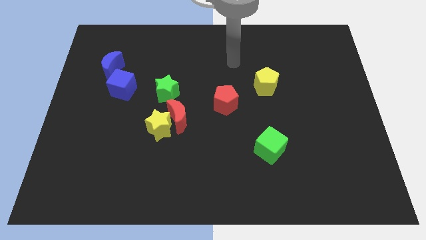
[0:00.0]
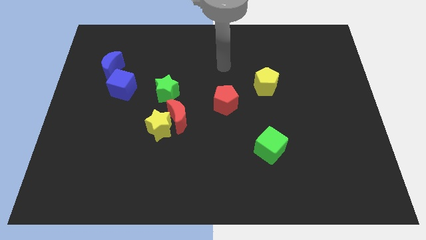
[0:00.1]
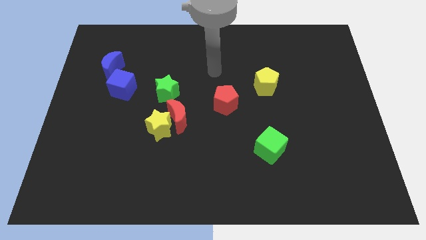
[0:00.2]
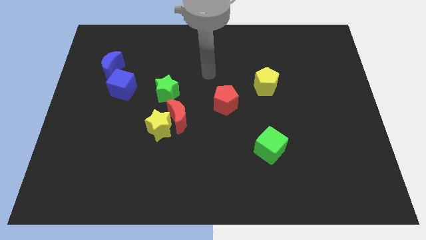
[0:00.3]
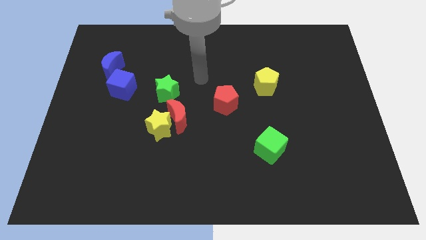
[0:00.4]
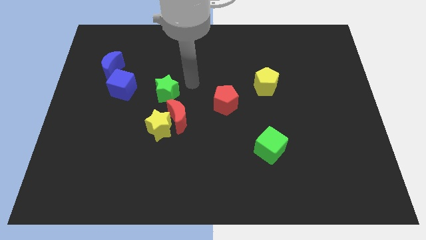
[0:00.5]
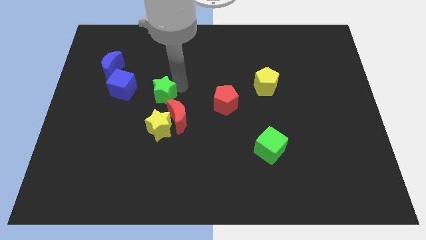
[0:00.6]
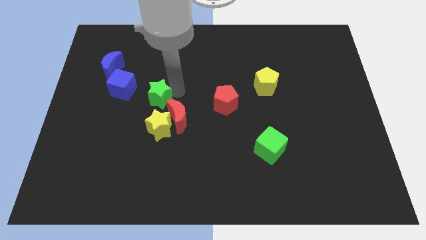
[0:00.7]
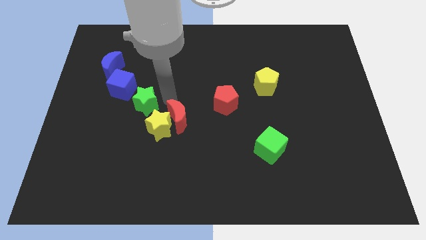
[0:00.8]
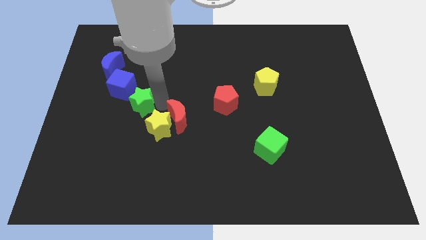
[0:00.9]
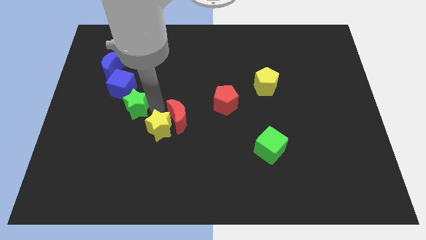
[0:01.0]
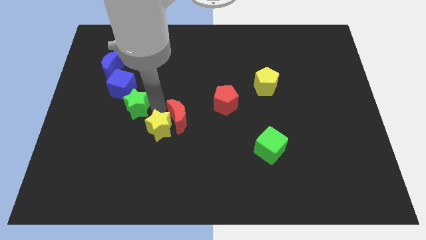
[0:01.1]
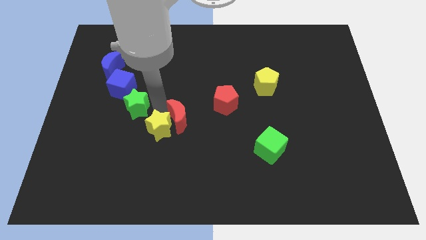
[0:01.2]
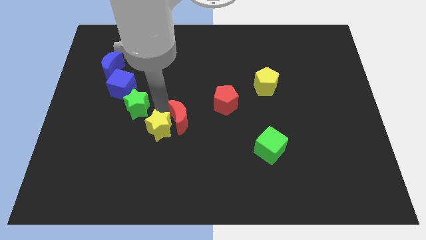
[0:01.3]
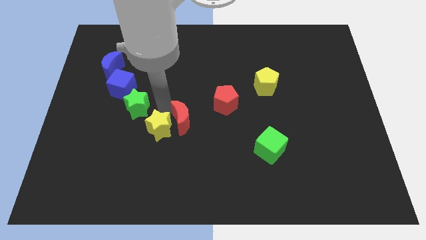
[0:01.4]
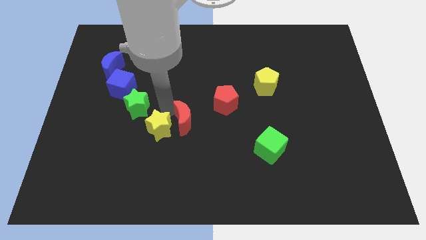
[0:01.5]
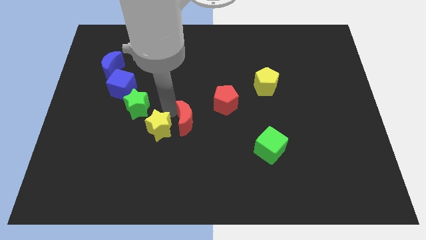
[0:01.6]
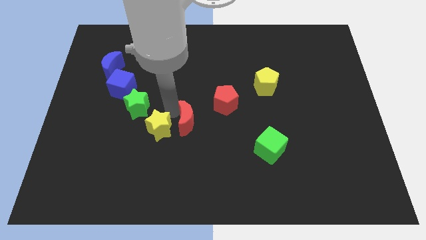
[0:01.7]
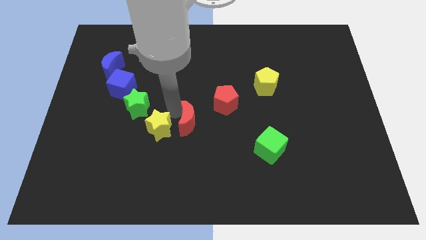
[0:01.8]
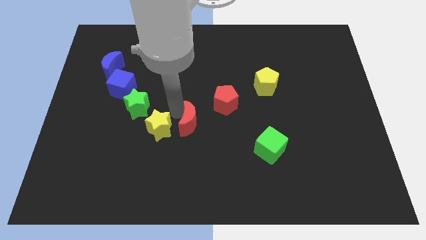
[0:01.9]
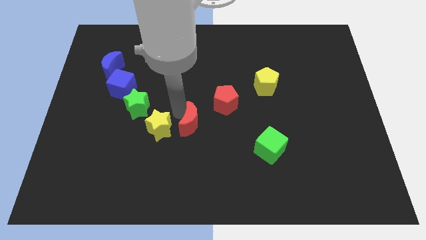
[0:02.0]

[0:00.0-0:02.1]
pull the red moon apart from the yellow star and green star

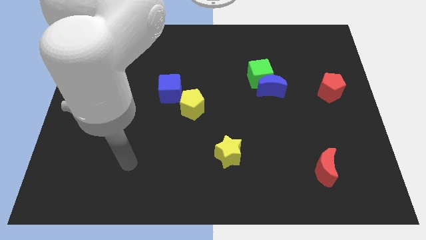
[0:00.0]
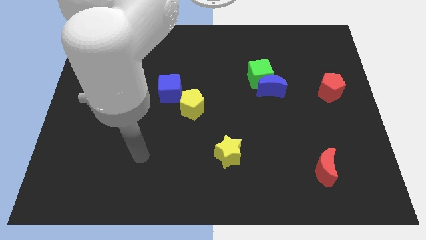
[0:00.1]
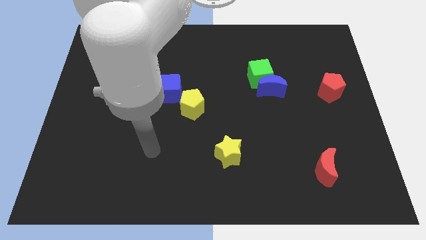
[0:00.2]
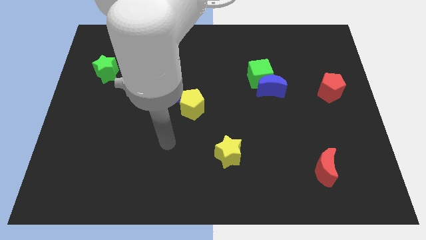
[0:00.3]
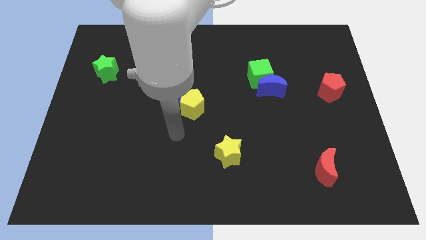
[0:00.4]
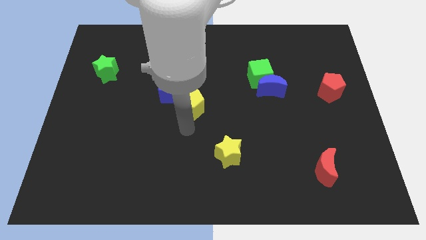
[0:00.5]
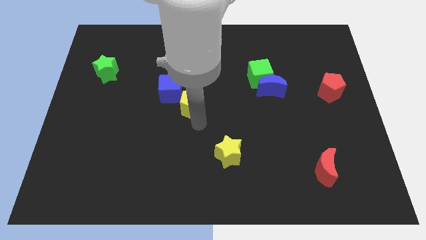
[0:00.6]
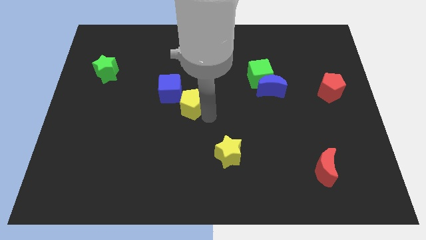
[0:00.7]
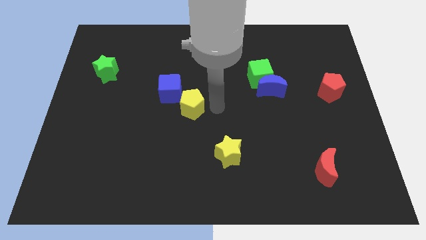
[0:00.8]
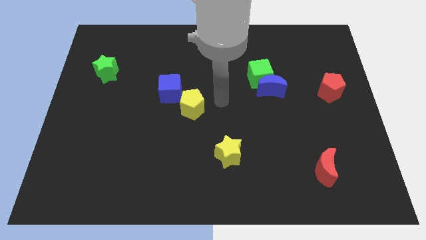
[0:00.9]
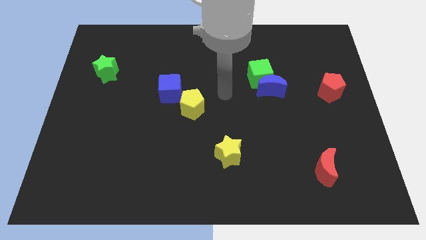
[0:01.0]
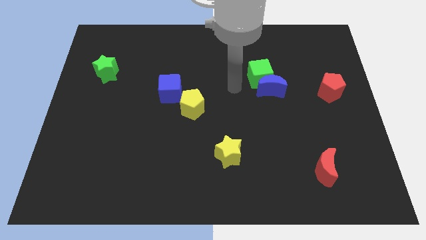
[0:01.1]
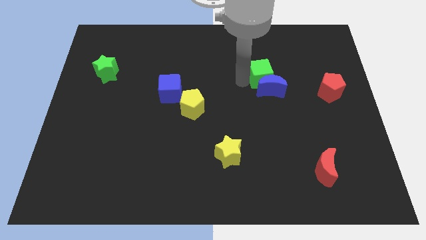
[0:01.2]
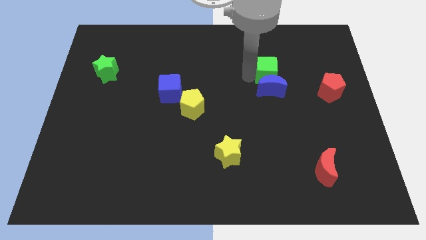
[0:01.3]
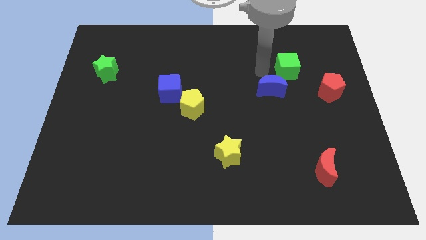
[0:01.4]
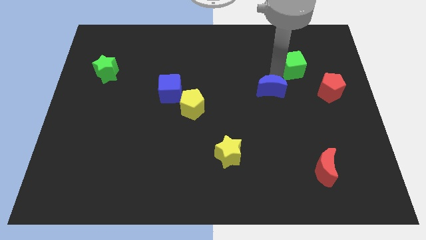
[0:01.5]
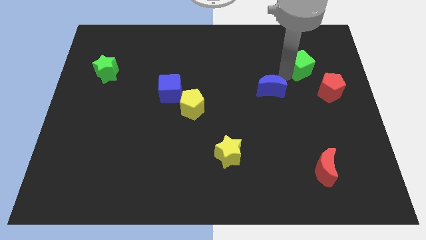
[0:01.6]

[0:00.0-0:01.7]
pull the blue moon apart from the green cube

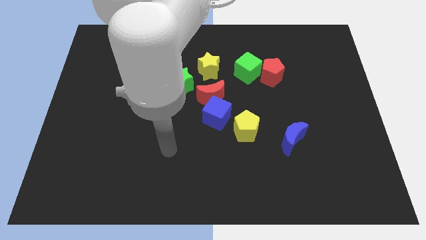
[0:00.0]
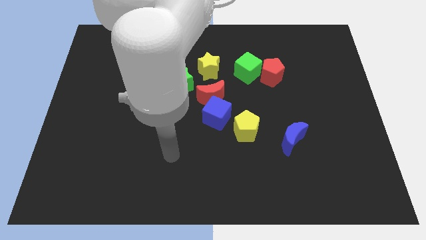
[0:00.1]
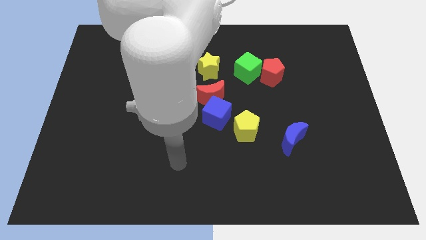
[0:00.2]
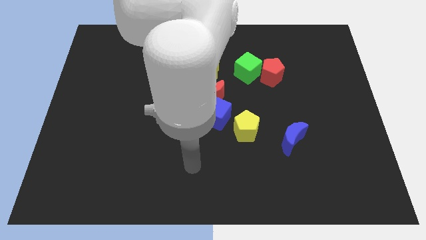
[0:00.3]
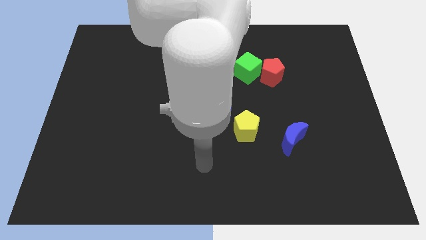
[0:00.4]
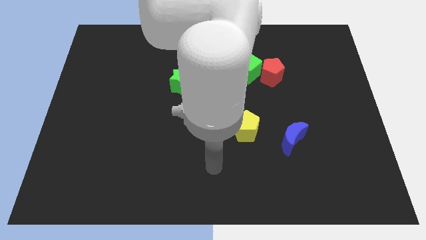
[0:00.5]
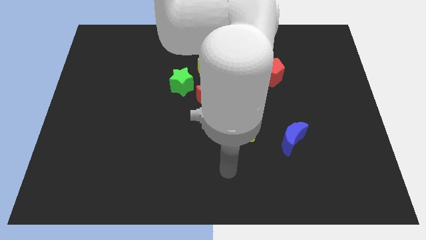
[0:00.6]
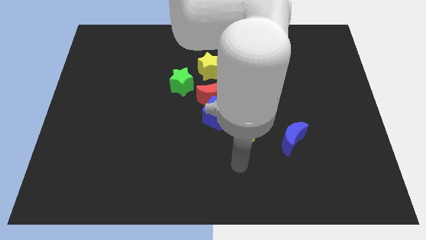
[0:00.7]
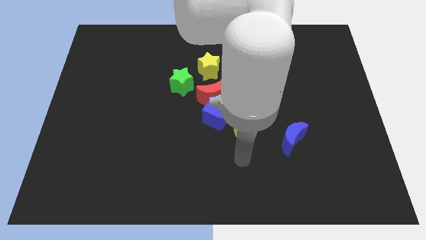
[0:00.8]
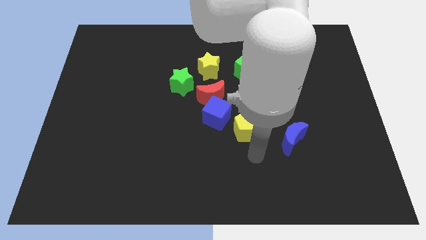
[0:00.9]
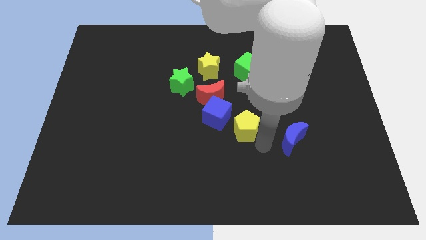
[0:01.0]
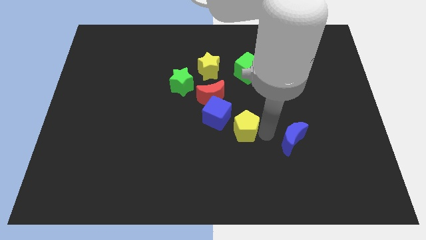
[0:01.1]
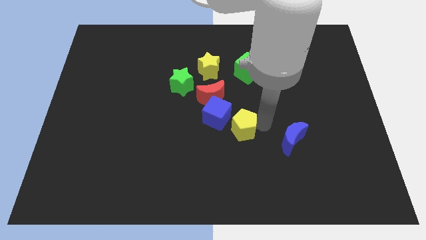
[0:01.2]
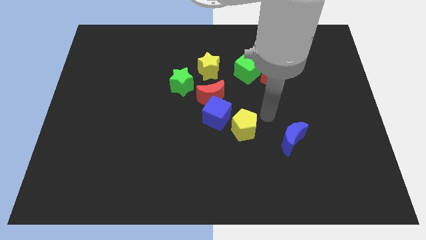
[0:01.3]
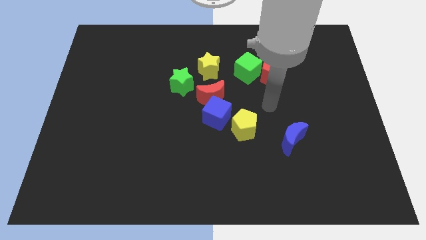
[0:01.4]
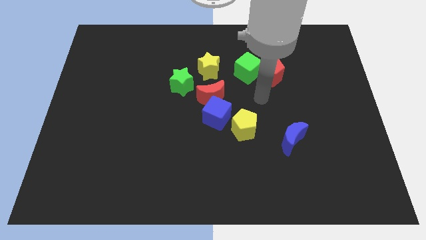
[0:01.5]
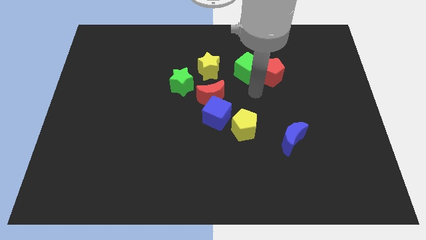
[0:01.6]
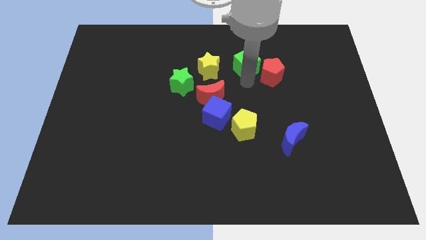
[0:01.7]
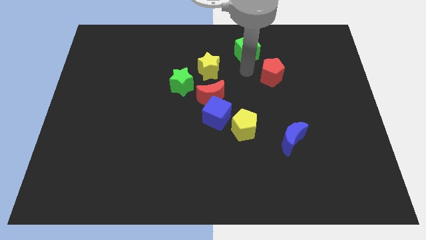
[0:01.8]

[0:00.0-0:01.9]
separate the red pentagon from the green cube

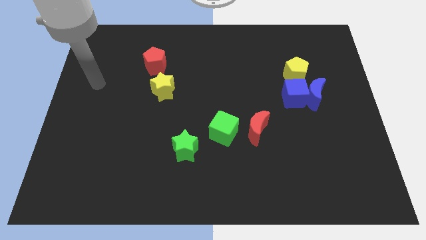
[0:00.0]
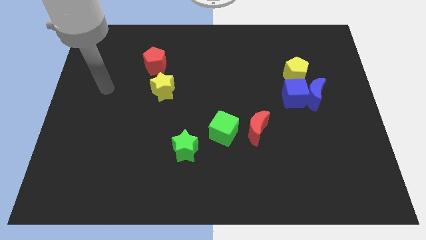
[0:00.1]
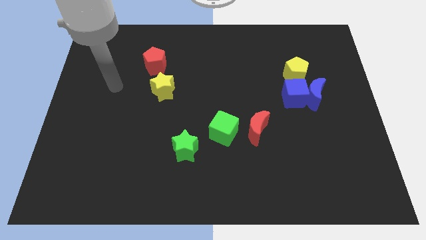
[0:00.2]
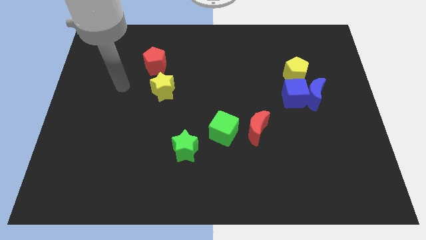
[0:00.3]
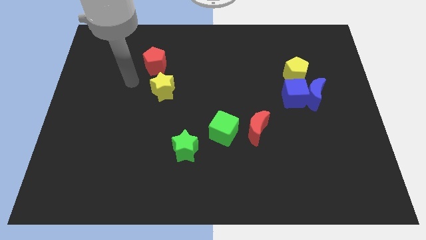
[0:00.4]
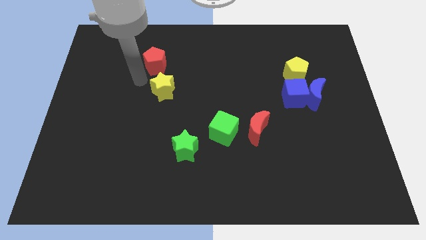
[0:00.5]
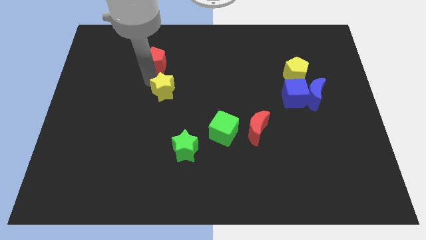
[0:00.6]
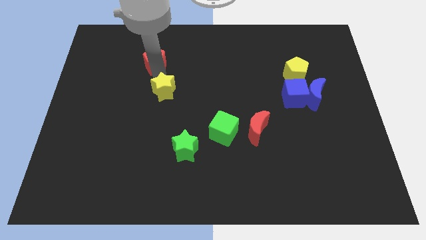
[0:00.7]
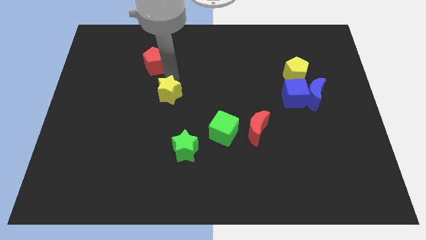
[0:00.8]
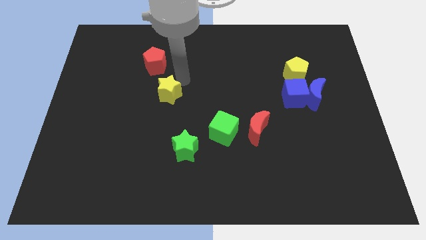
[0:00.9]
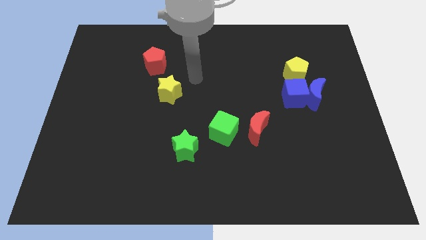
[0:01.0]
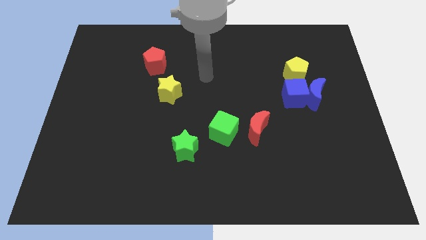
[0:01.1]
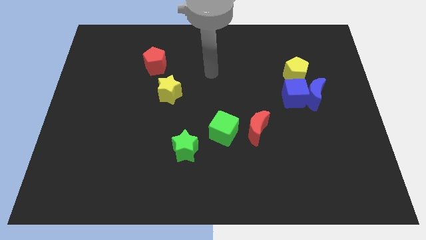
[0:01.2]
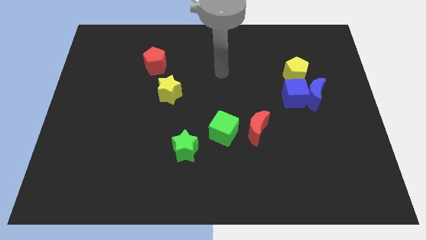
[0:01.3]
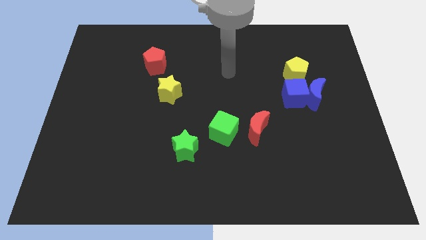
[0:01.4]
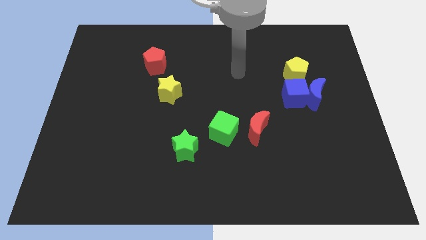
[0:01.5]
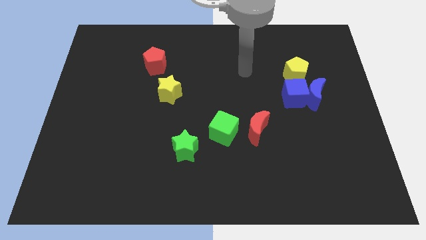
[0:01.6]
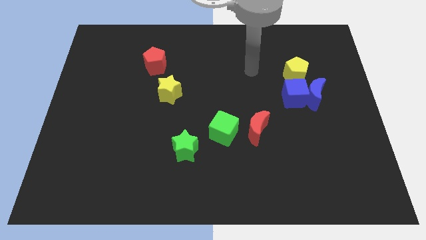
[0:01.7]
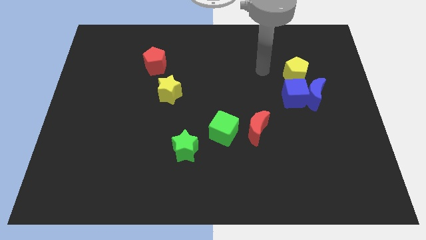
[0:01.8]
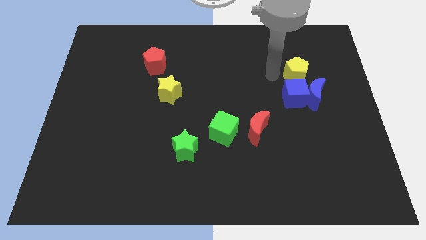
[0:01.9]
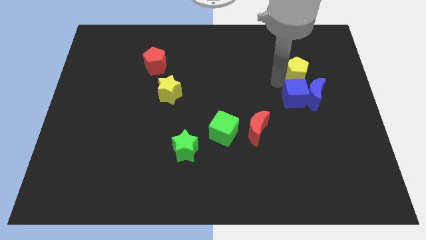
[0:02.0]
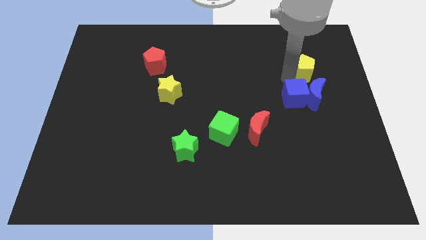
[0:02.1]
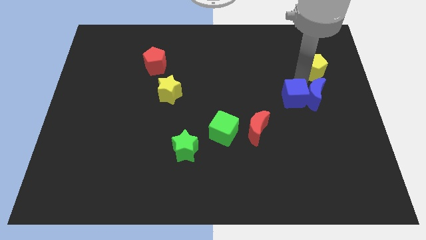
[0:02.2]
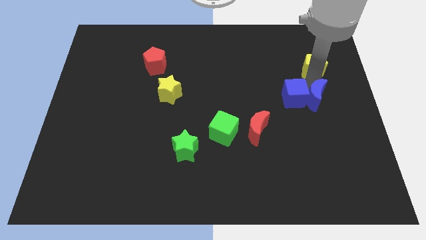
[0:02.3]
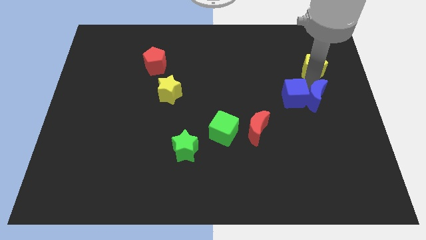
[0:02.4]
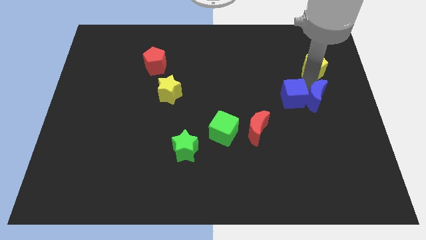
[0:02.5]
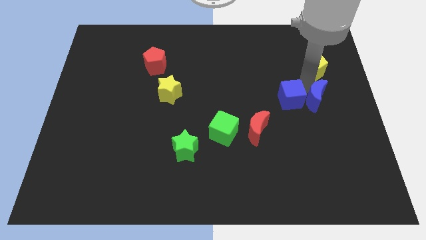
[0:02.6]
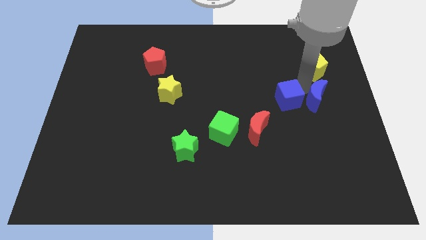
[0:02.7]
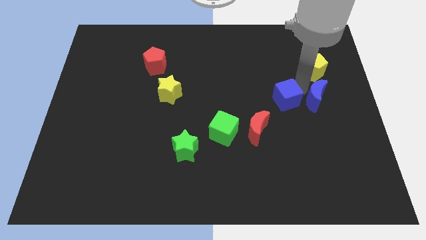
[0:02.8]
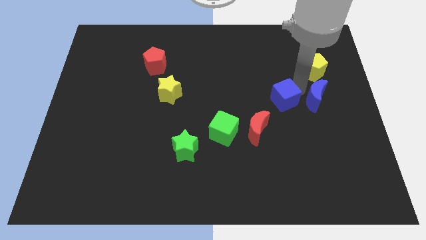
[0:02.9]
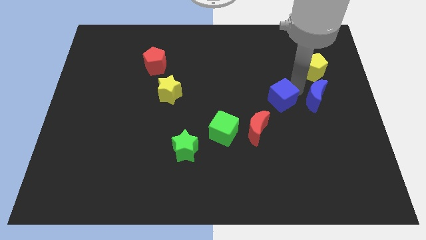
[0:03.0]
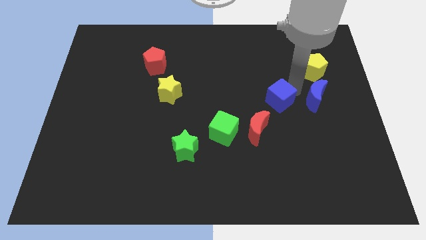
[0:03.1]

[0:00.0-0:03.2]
separate the blue cube from the blue moon and yellow pentagon

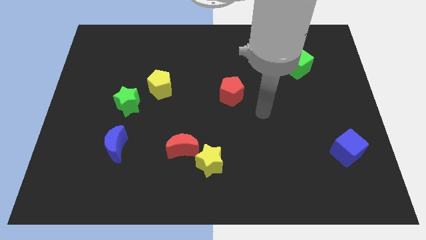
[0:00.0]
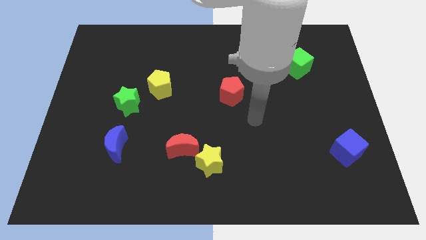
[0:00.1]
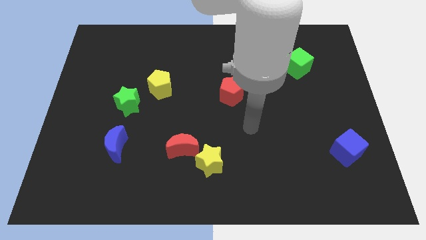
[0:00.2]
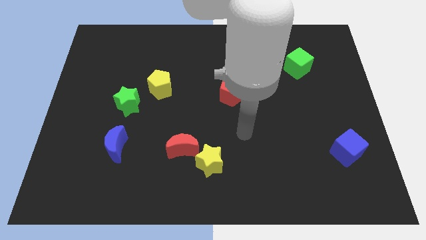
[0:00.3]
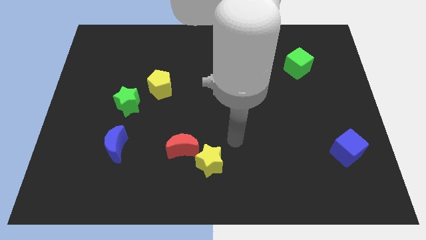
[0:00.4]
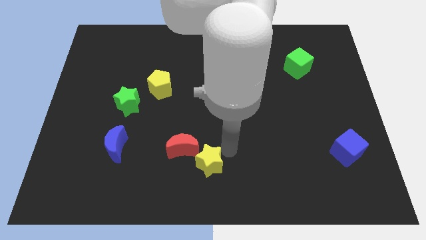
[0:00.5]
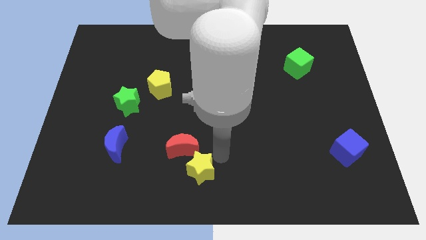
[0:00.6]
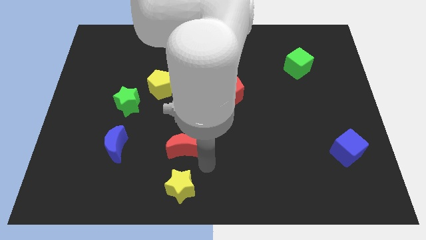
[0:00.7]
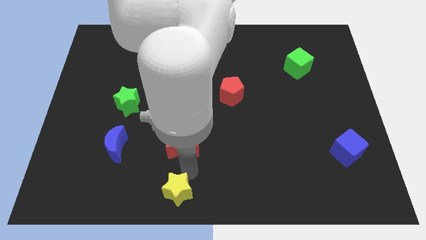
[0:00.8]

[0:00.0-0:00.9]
move the red moon away from the yellow star
